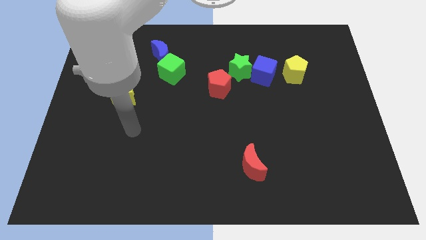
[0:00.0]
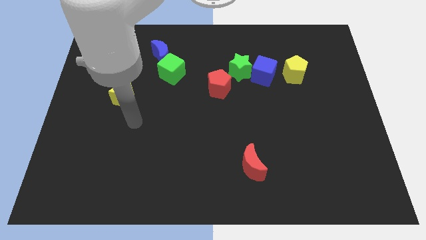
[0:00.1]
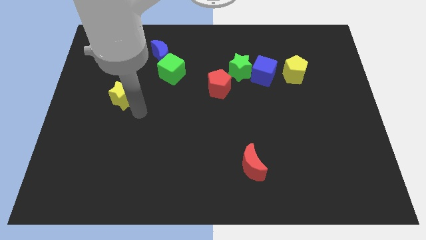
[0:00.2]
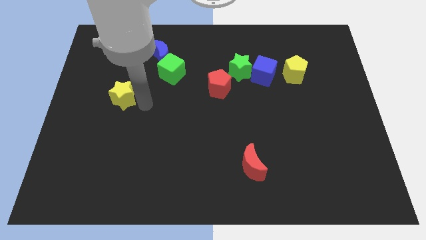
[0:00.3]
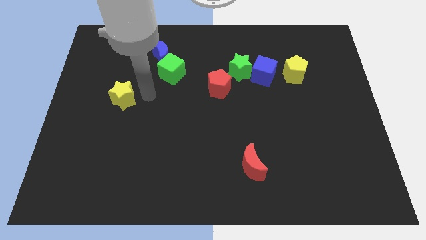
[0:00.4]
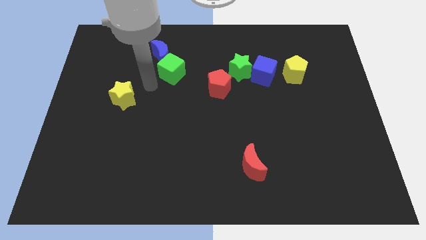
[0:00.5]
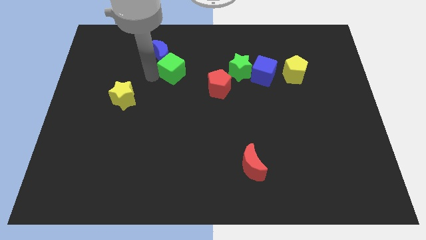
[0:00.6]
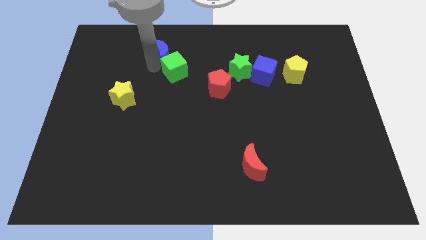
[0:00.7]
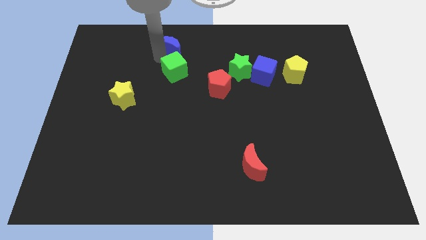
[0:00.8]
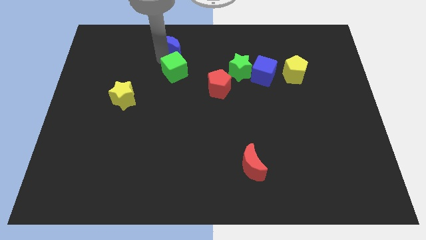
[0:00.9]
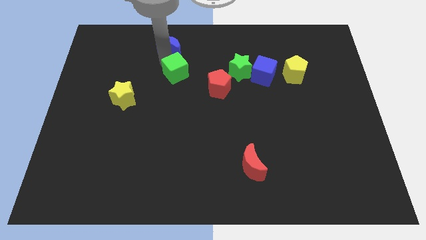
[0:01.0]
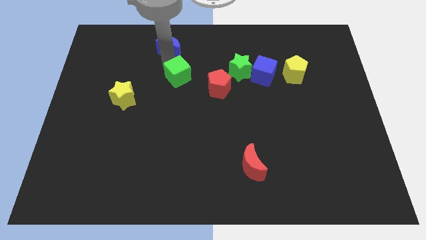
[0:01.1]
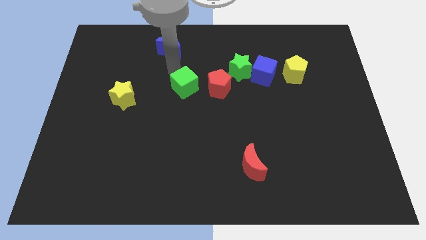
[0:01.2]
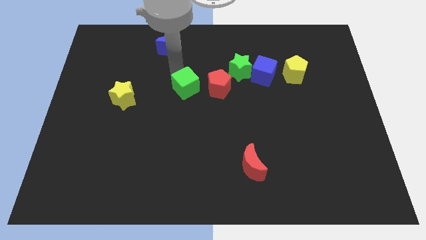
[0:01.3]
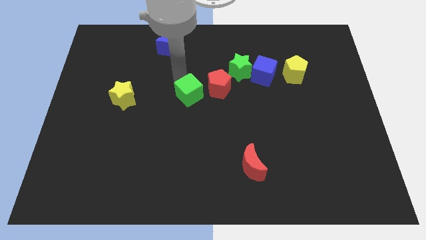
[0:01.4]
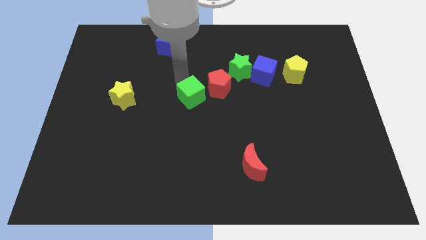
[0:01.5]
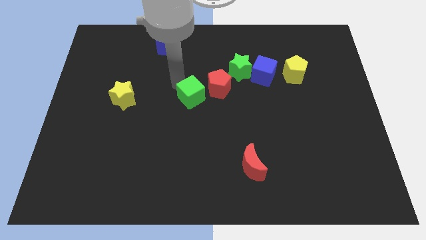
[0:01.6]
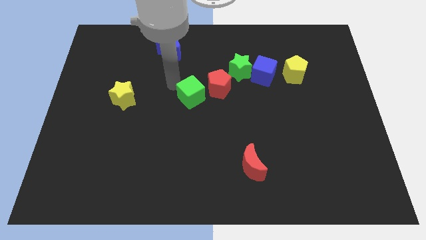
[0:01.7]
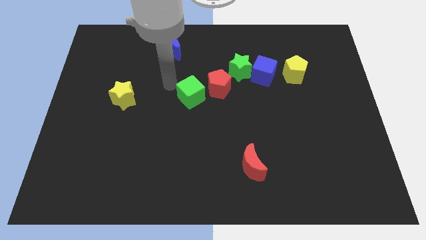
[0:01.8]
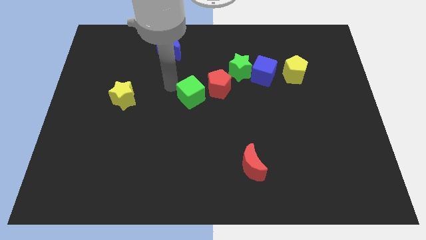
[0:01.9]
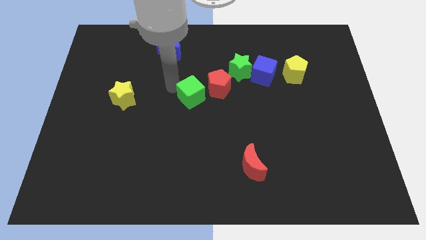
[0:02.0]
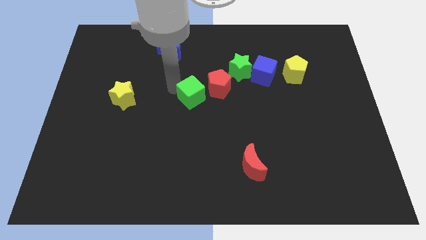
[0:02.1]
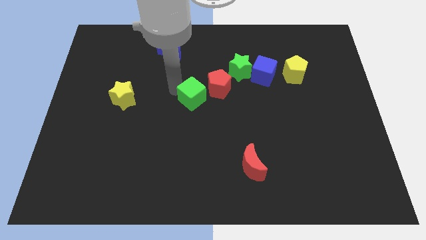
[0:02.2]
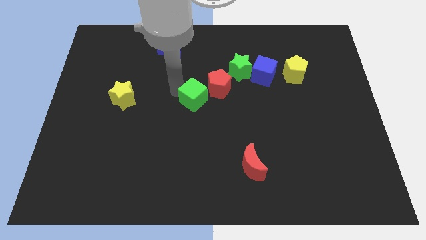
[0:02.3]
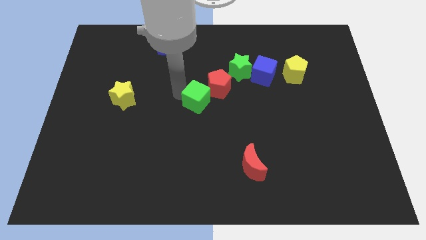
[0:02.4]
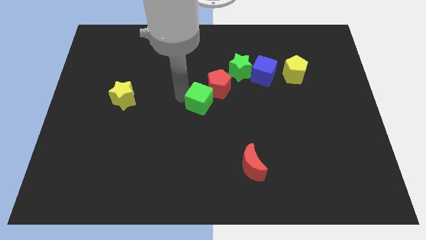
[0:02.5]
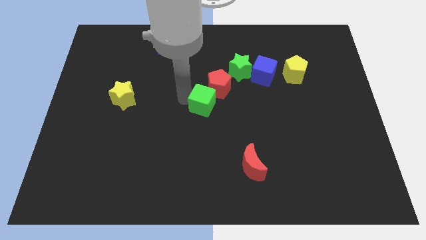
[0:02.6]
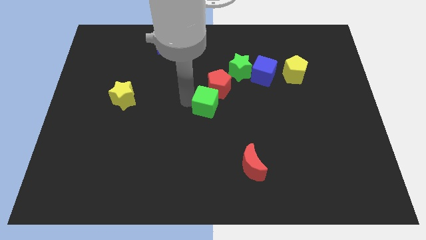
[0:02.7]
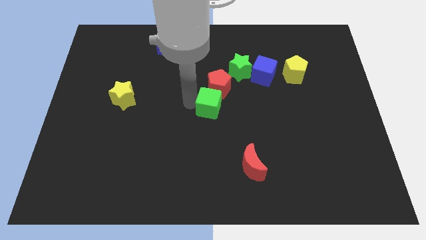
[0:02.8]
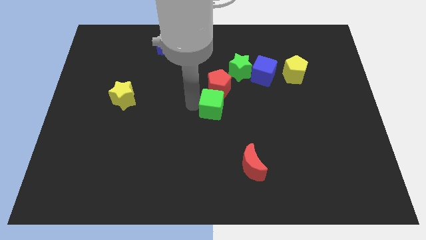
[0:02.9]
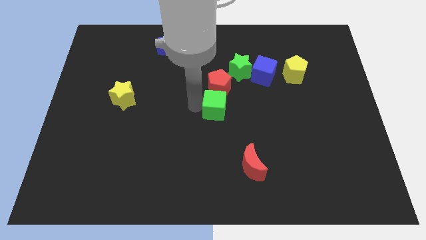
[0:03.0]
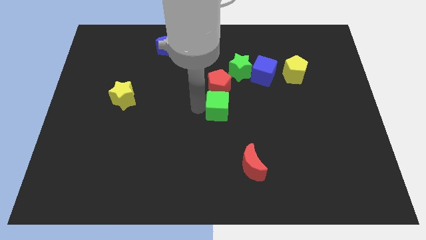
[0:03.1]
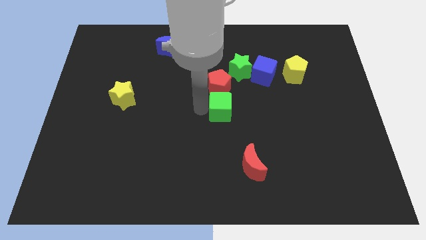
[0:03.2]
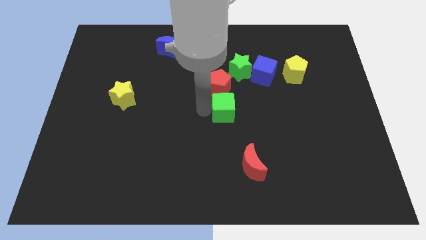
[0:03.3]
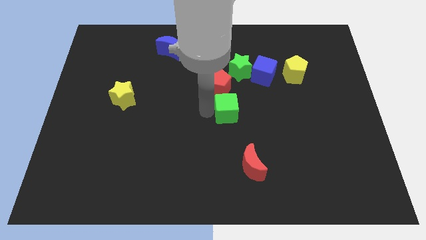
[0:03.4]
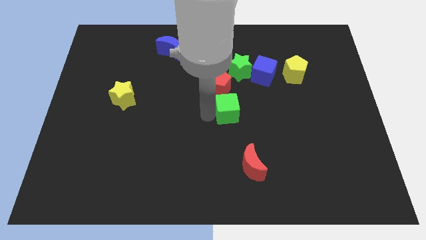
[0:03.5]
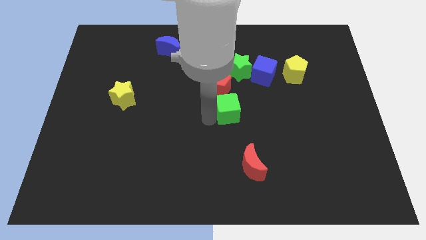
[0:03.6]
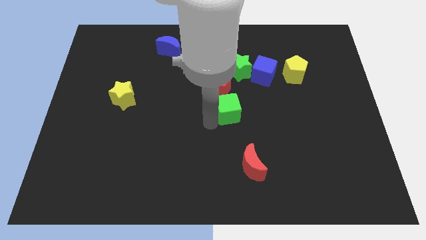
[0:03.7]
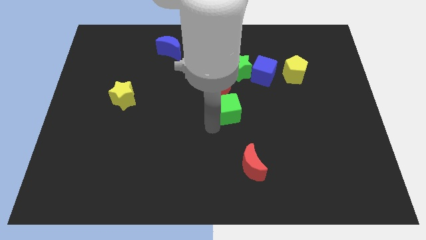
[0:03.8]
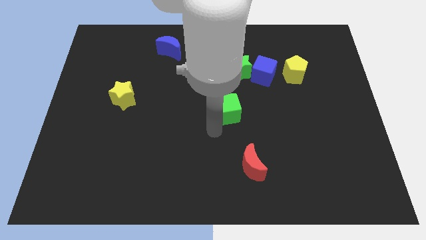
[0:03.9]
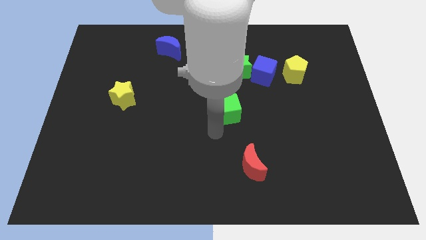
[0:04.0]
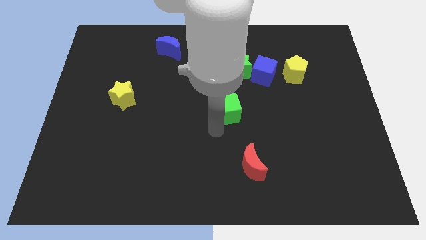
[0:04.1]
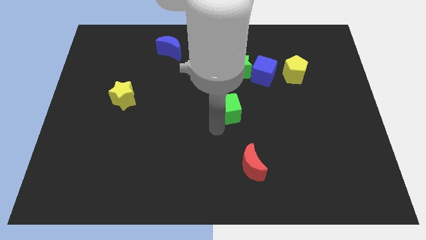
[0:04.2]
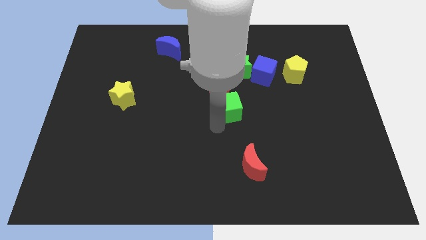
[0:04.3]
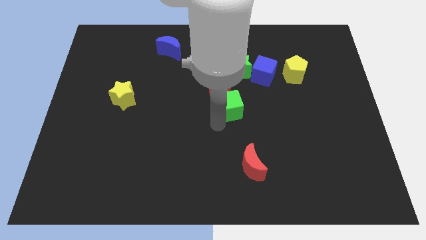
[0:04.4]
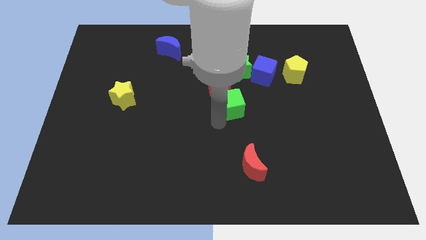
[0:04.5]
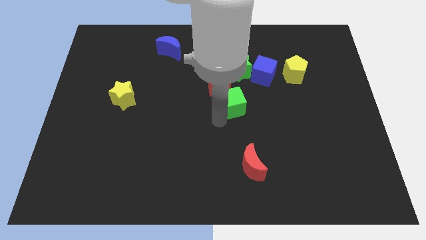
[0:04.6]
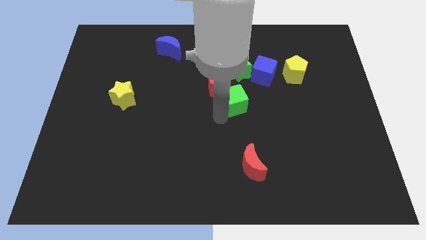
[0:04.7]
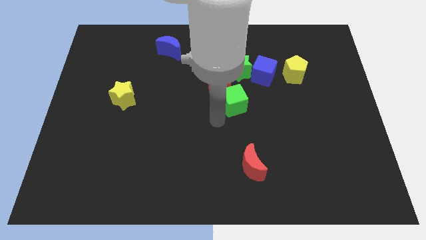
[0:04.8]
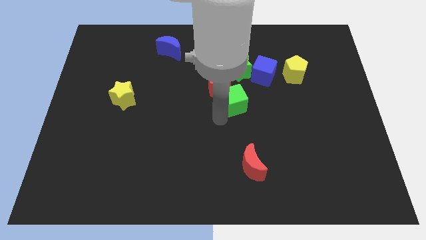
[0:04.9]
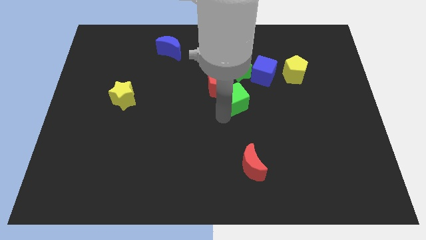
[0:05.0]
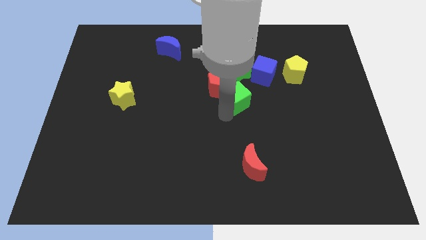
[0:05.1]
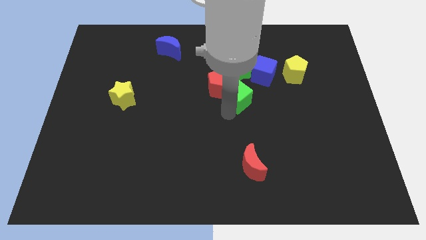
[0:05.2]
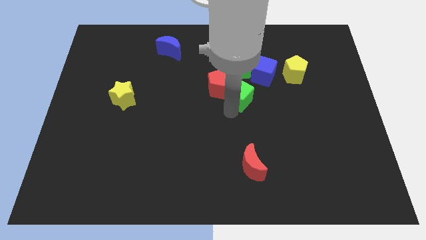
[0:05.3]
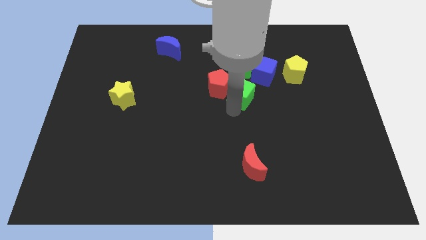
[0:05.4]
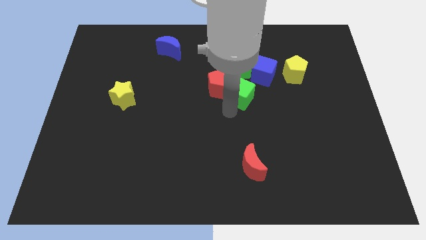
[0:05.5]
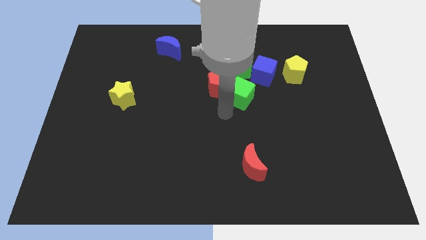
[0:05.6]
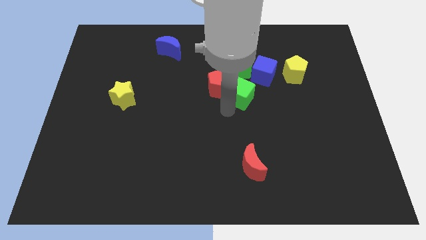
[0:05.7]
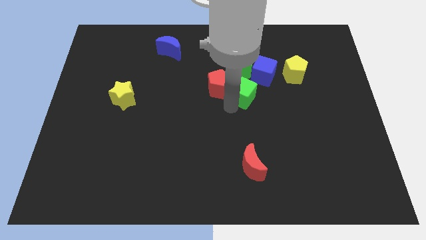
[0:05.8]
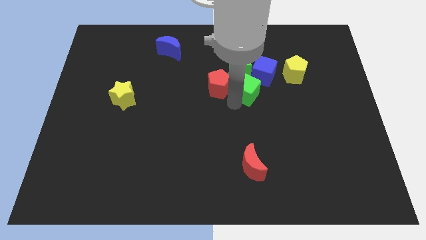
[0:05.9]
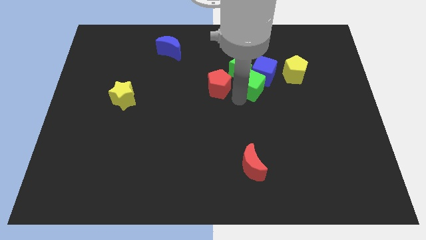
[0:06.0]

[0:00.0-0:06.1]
put the green cube towards the blue cube

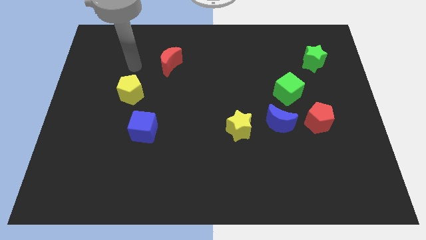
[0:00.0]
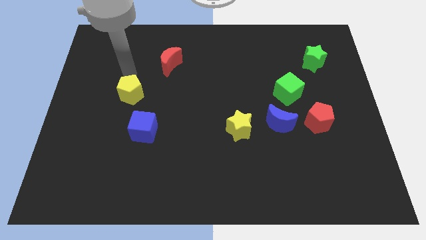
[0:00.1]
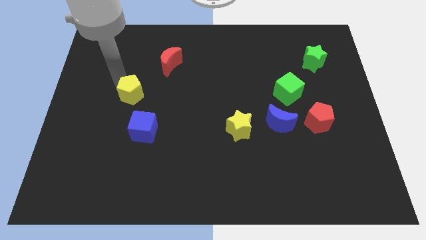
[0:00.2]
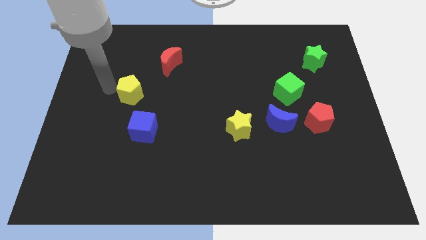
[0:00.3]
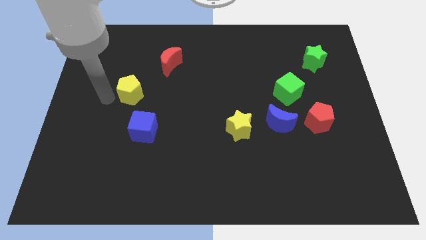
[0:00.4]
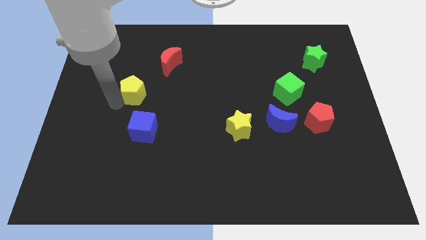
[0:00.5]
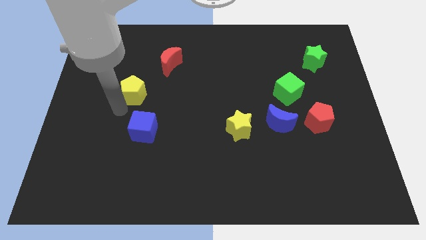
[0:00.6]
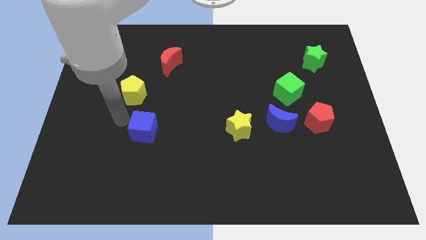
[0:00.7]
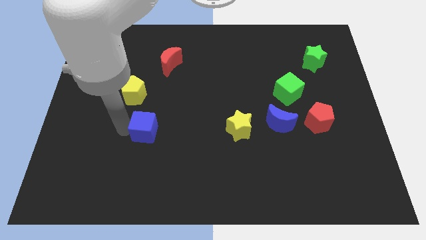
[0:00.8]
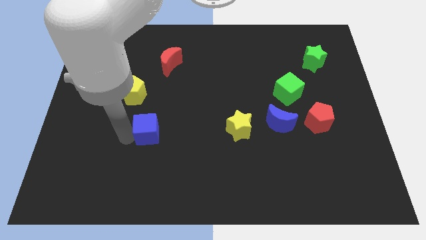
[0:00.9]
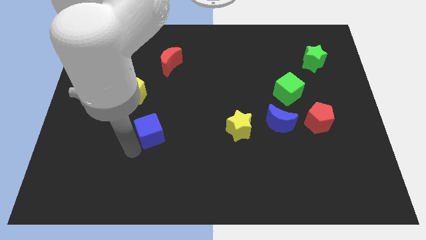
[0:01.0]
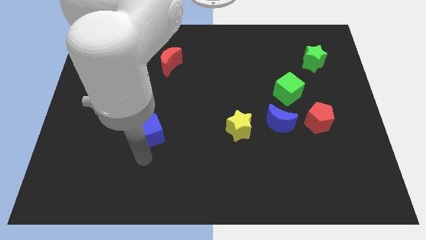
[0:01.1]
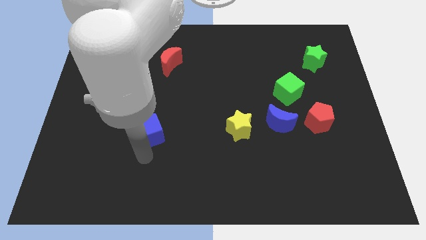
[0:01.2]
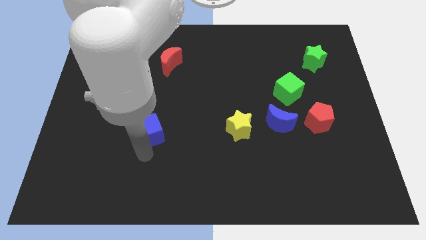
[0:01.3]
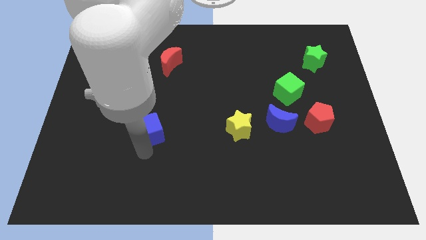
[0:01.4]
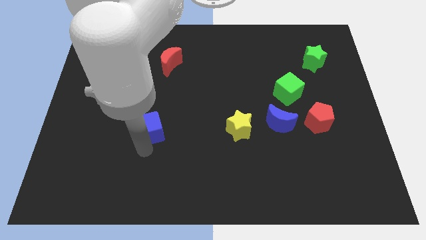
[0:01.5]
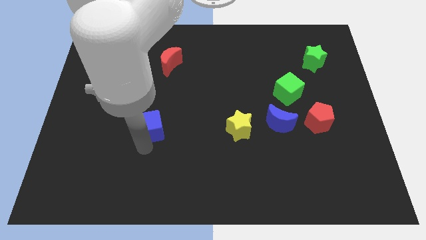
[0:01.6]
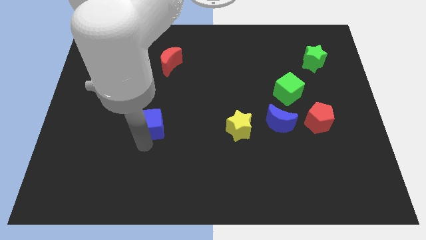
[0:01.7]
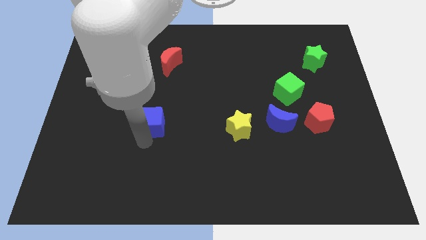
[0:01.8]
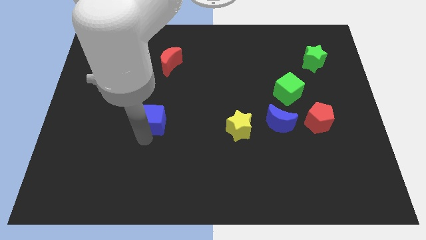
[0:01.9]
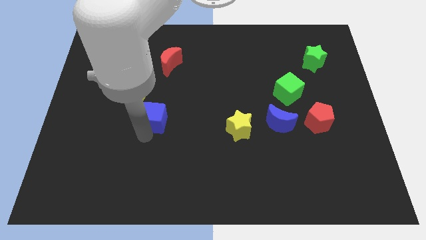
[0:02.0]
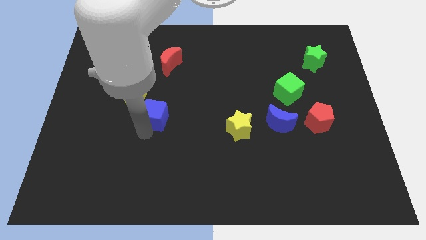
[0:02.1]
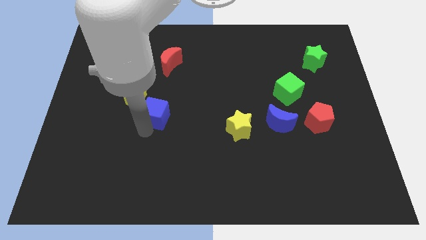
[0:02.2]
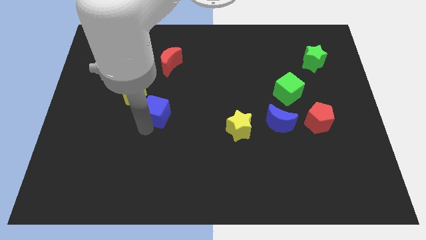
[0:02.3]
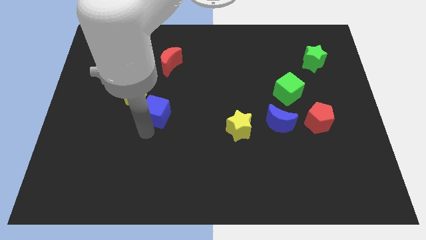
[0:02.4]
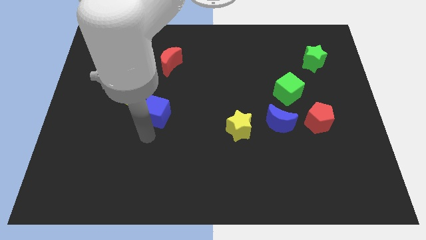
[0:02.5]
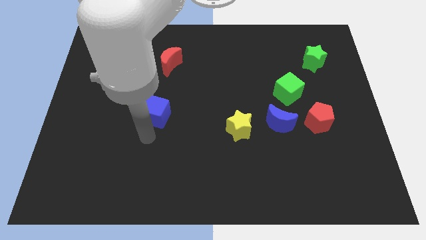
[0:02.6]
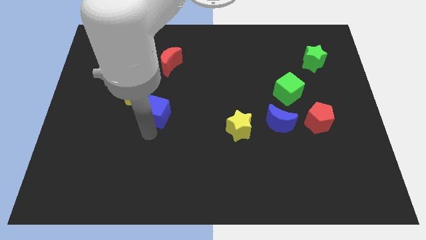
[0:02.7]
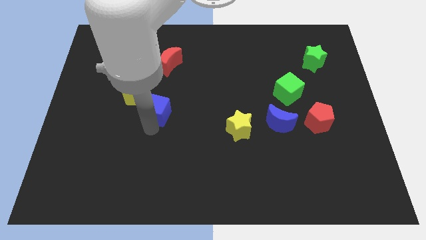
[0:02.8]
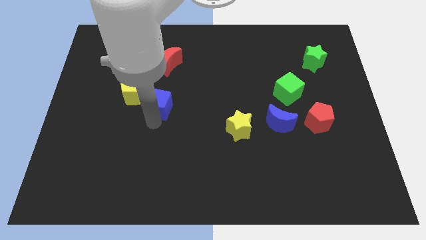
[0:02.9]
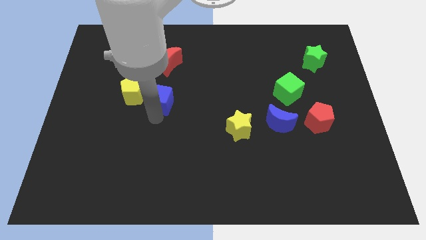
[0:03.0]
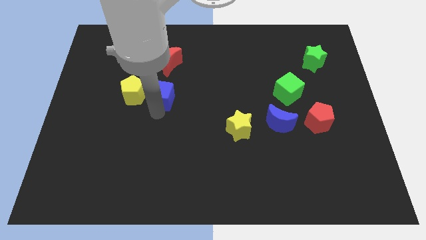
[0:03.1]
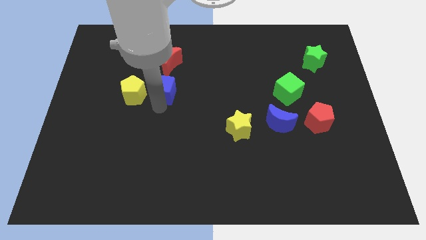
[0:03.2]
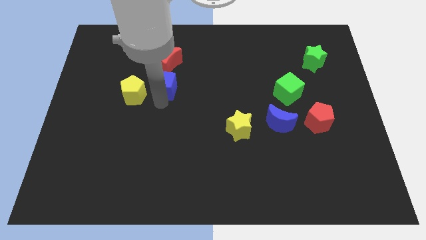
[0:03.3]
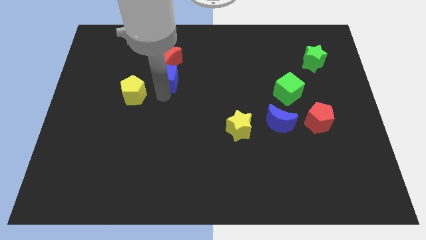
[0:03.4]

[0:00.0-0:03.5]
push the blue cube next to the red moon
